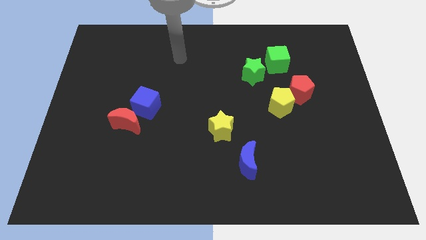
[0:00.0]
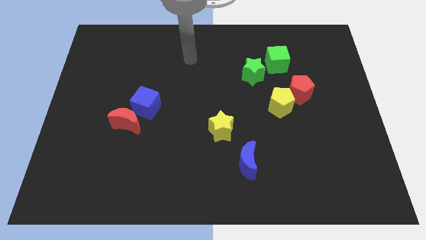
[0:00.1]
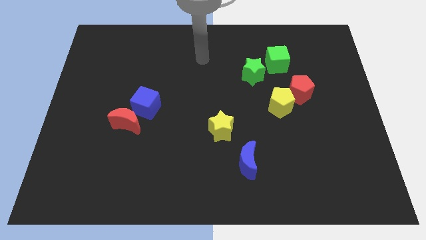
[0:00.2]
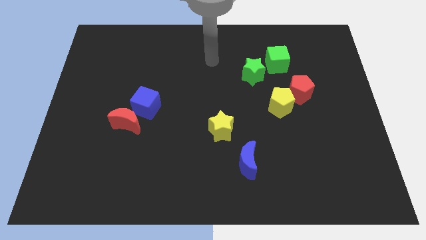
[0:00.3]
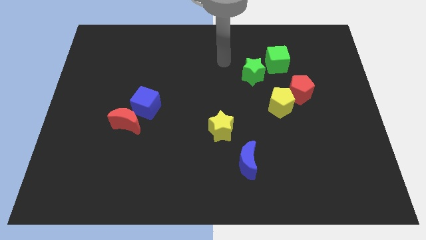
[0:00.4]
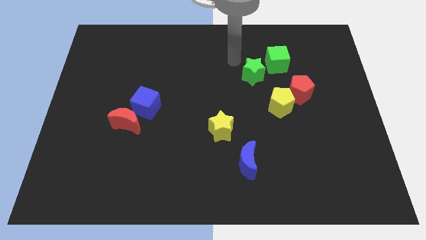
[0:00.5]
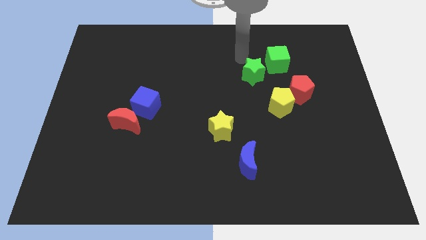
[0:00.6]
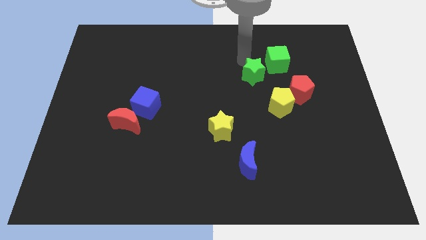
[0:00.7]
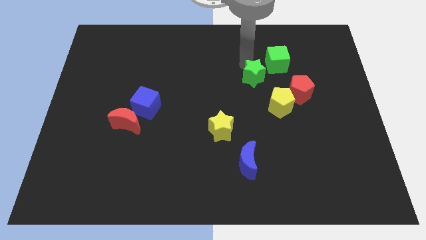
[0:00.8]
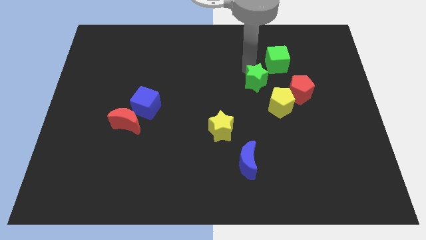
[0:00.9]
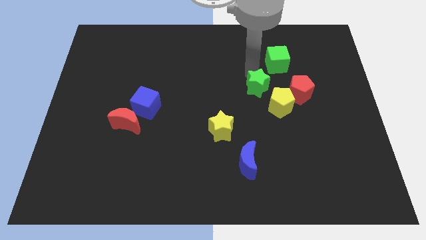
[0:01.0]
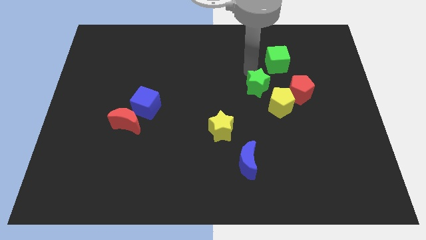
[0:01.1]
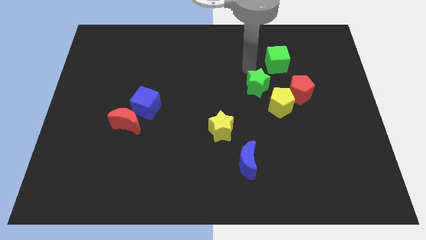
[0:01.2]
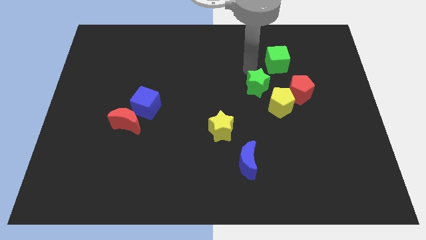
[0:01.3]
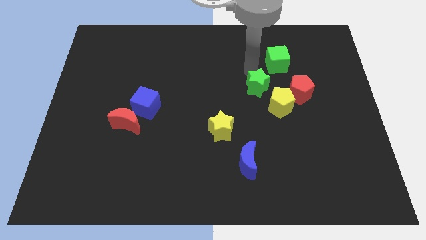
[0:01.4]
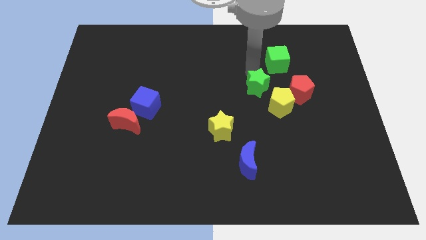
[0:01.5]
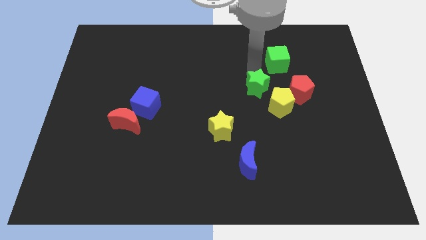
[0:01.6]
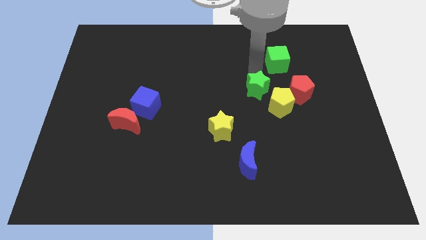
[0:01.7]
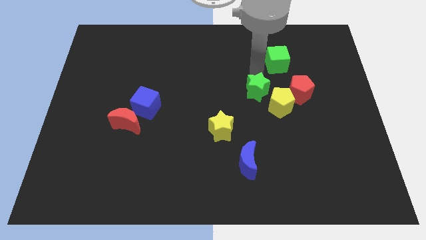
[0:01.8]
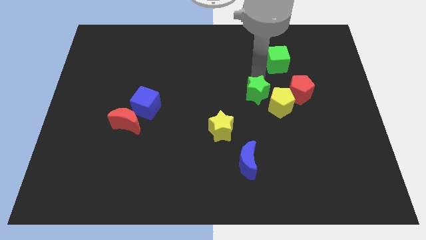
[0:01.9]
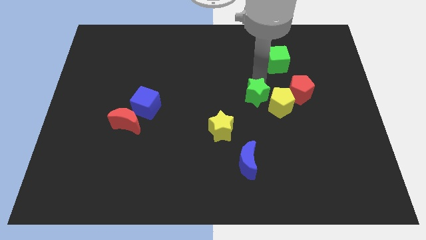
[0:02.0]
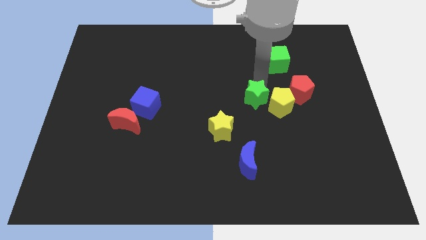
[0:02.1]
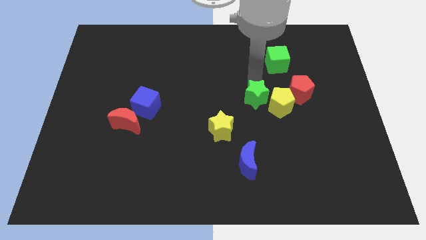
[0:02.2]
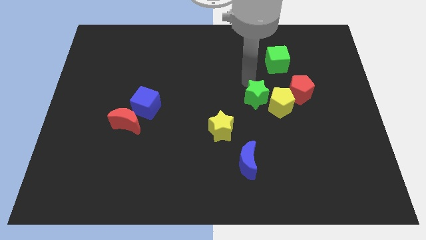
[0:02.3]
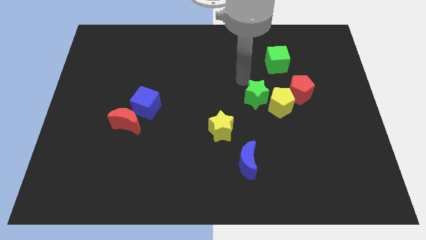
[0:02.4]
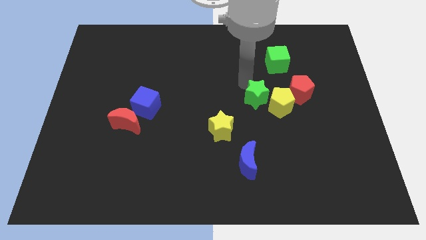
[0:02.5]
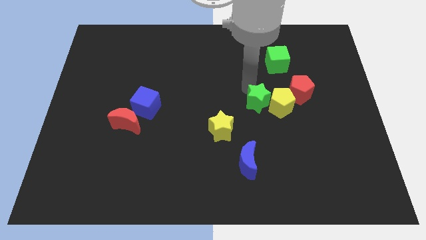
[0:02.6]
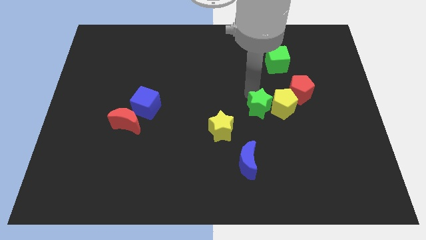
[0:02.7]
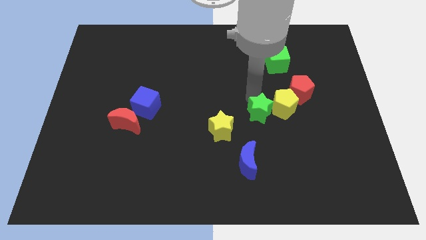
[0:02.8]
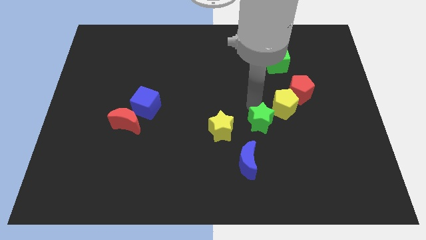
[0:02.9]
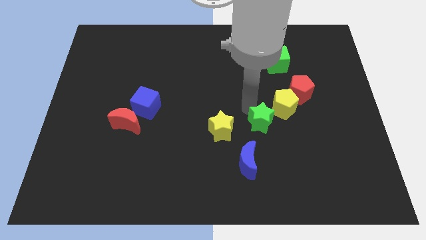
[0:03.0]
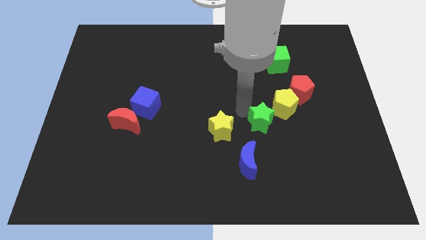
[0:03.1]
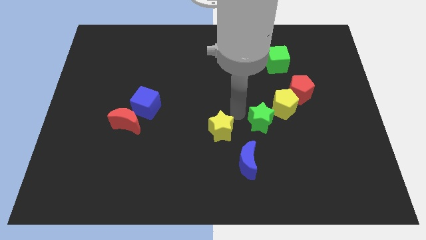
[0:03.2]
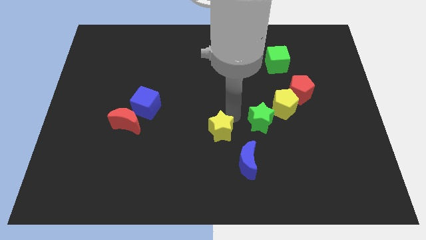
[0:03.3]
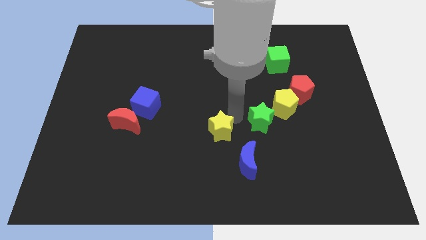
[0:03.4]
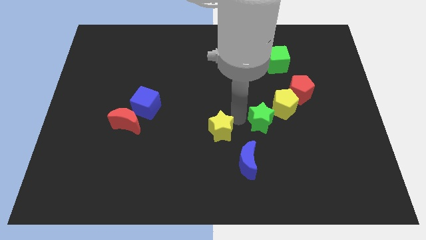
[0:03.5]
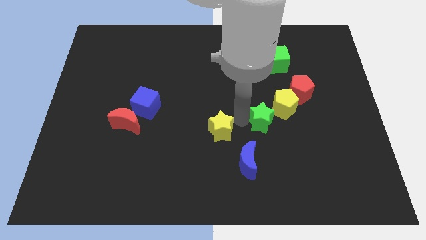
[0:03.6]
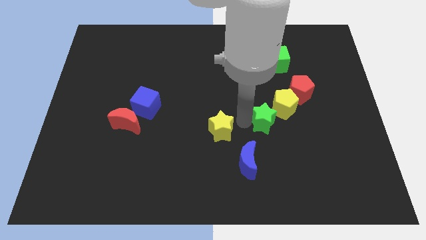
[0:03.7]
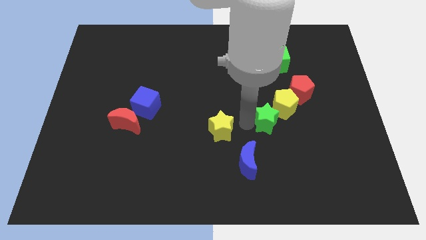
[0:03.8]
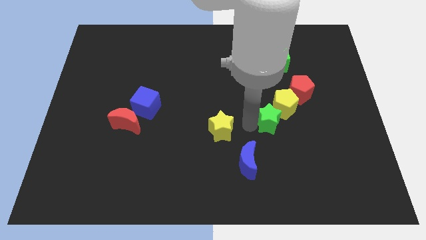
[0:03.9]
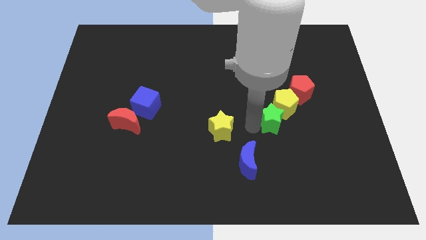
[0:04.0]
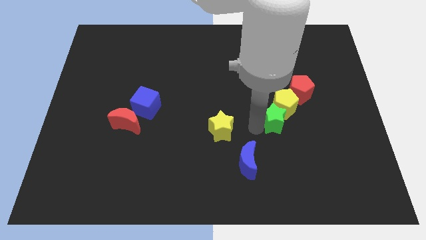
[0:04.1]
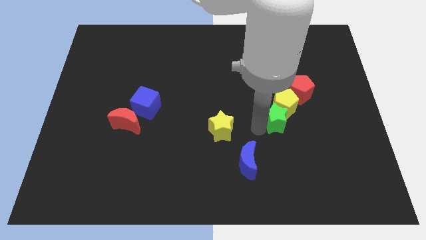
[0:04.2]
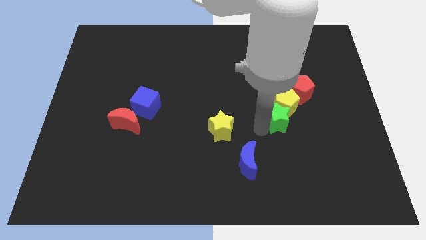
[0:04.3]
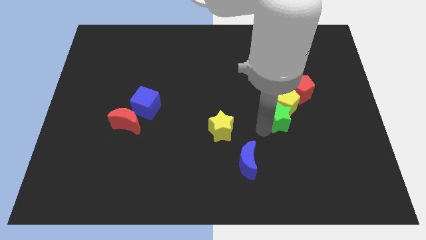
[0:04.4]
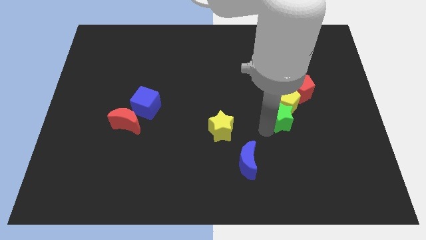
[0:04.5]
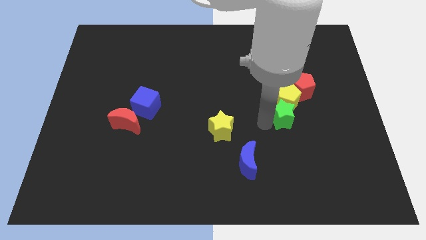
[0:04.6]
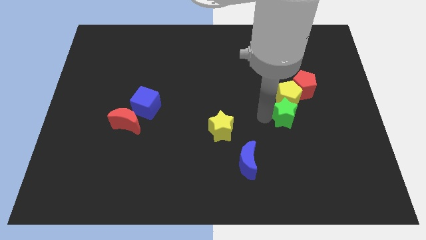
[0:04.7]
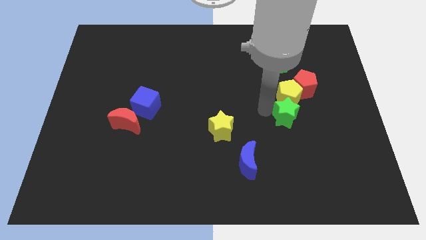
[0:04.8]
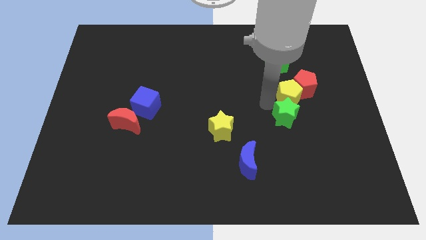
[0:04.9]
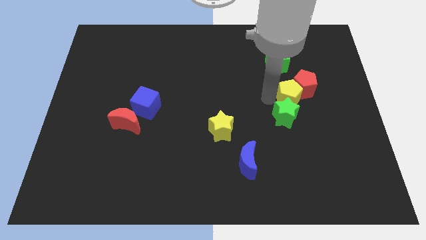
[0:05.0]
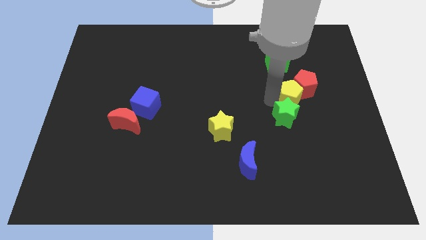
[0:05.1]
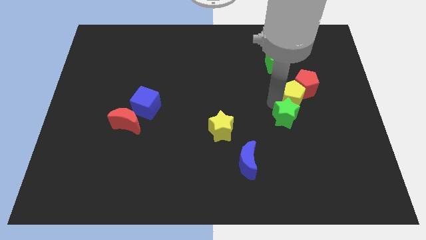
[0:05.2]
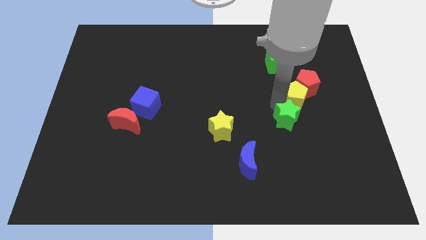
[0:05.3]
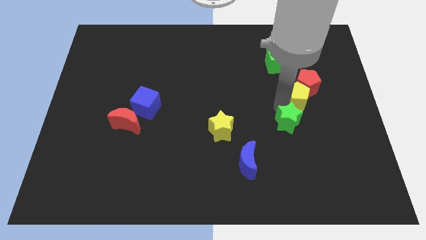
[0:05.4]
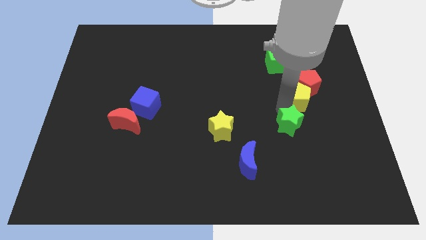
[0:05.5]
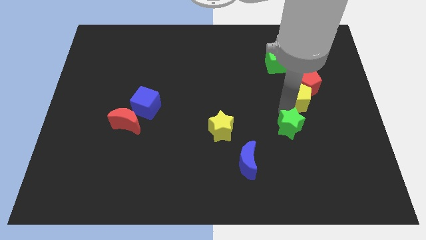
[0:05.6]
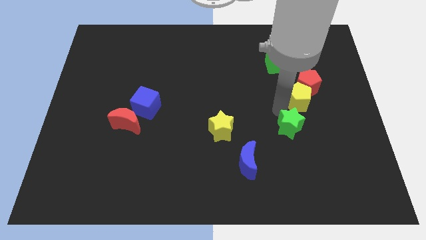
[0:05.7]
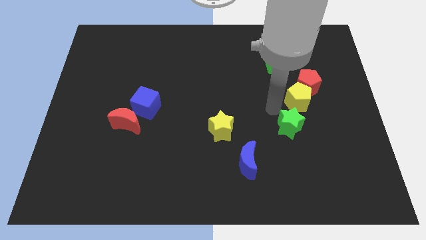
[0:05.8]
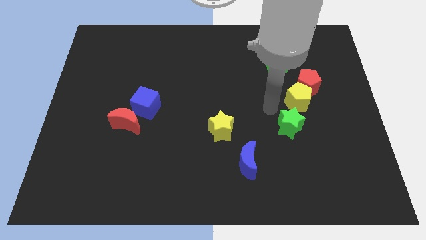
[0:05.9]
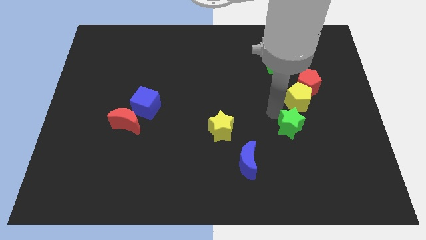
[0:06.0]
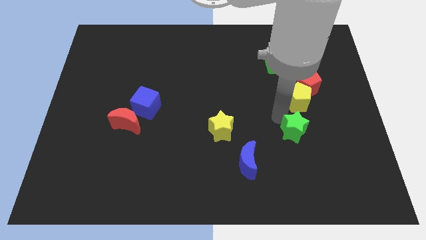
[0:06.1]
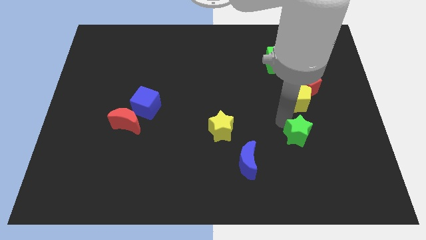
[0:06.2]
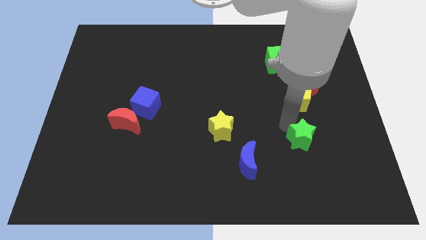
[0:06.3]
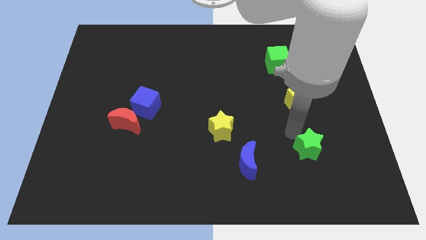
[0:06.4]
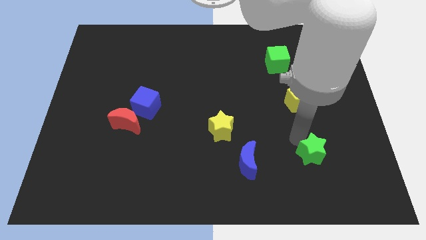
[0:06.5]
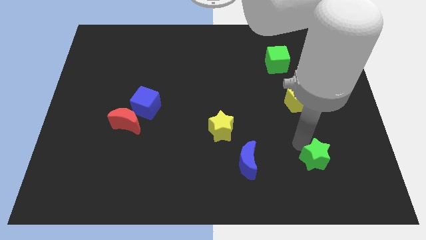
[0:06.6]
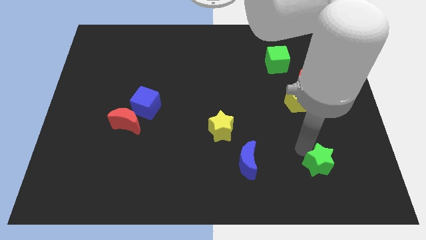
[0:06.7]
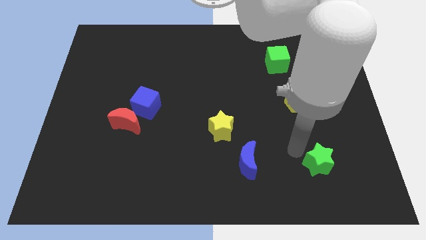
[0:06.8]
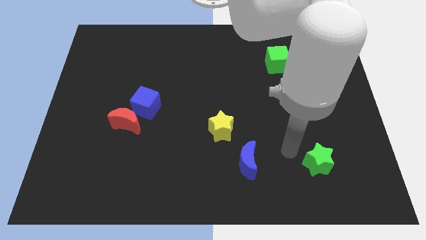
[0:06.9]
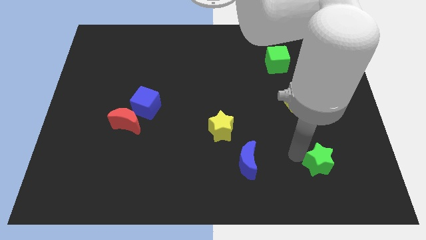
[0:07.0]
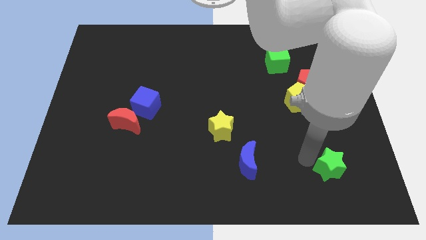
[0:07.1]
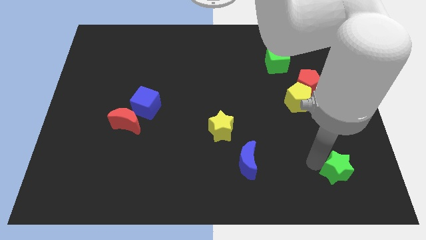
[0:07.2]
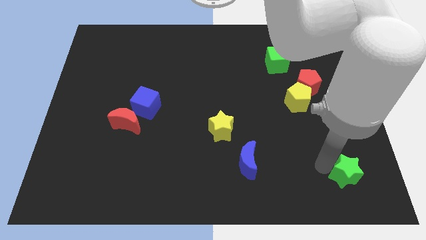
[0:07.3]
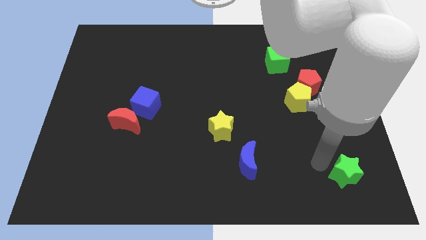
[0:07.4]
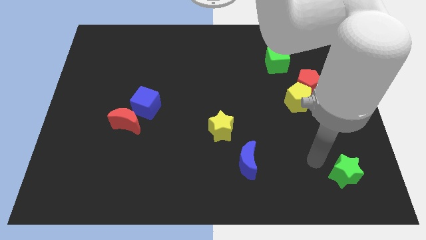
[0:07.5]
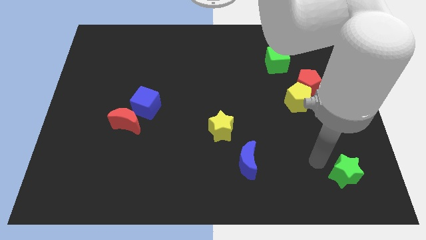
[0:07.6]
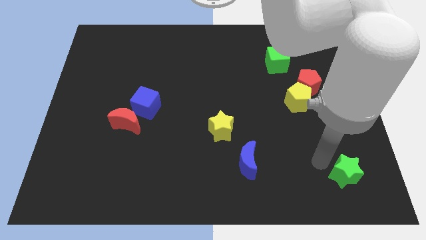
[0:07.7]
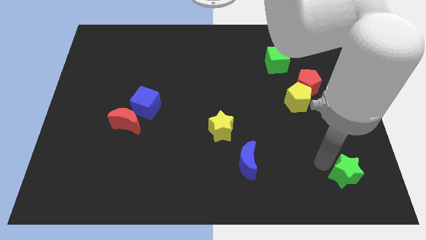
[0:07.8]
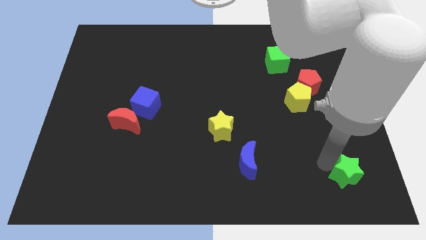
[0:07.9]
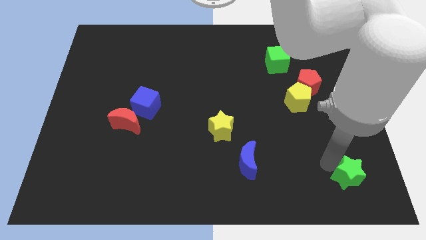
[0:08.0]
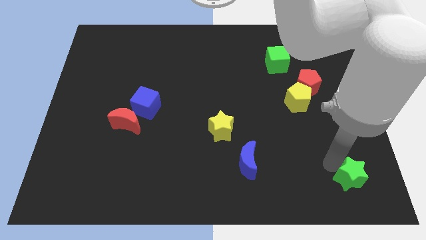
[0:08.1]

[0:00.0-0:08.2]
move the green star to the bottom right
